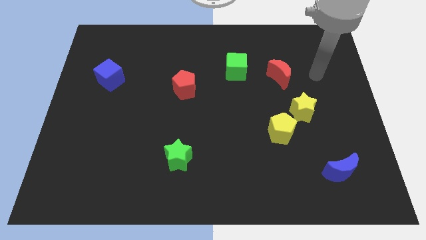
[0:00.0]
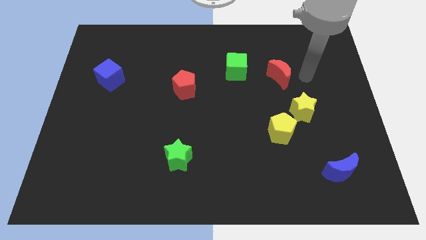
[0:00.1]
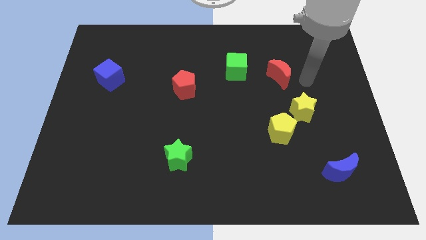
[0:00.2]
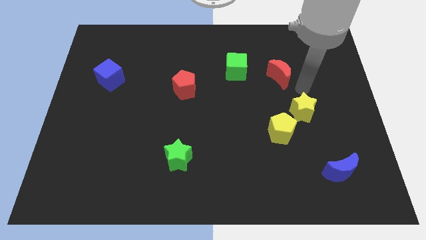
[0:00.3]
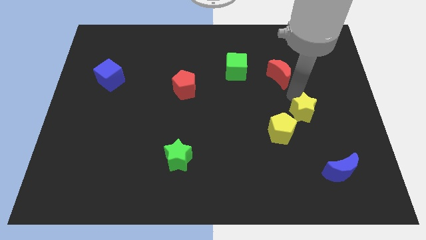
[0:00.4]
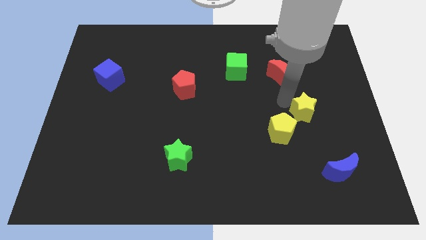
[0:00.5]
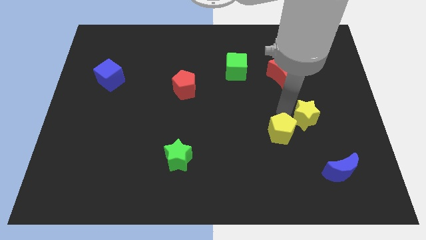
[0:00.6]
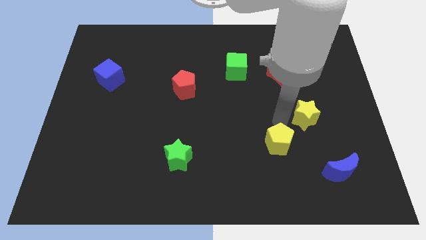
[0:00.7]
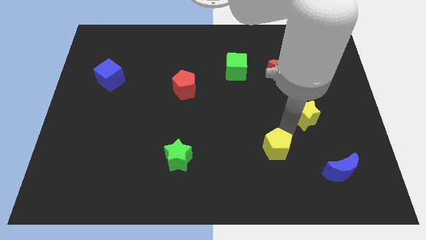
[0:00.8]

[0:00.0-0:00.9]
move the yellow star away from the yellow pentagon

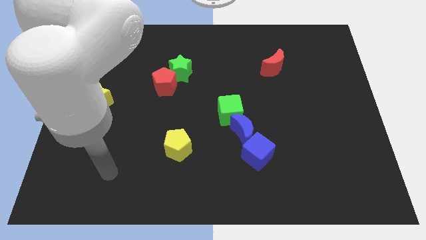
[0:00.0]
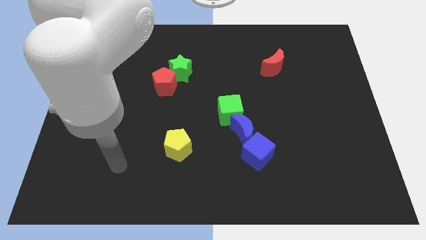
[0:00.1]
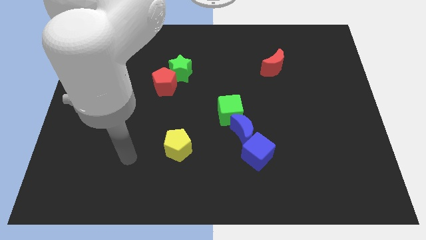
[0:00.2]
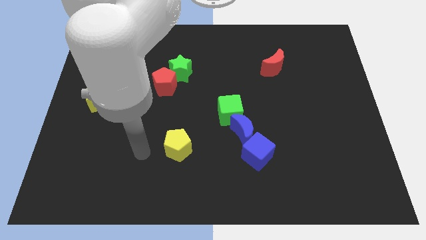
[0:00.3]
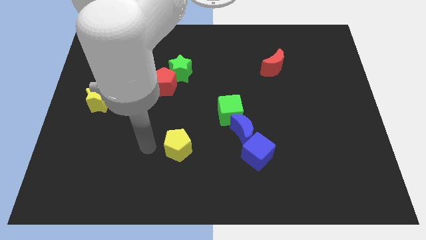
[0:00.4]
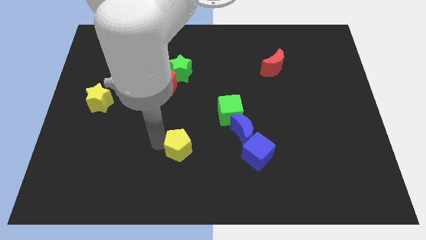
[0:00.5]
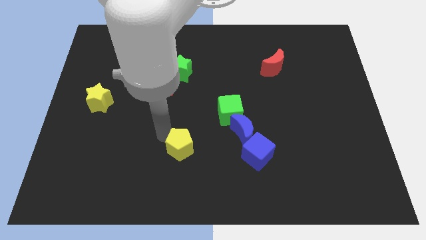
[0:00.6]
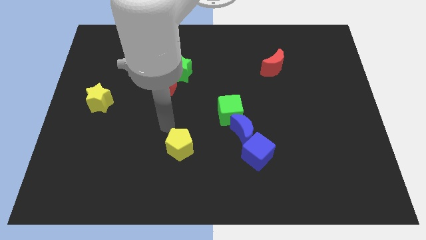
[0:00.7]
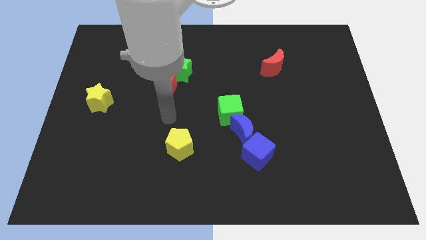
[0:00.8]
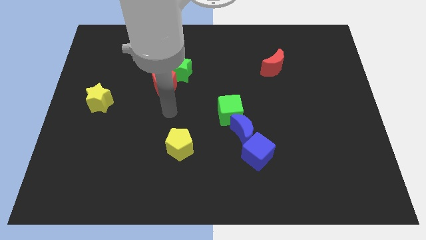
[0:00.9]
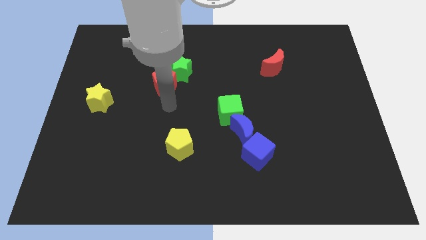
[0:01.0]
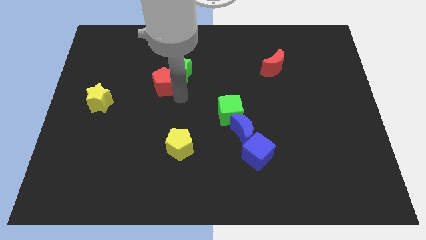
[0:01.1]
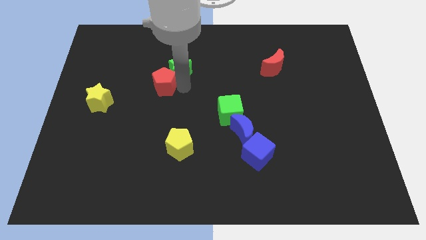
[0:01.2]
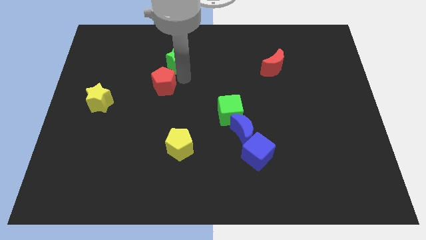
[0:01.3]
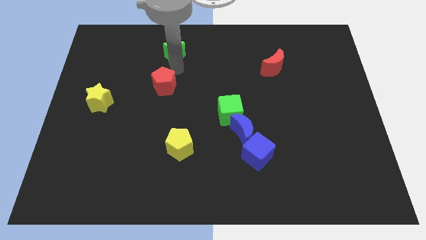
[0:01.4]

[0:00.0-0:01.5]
pull the red pentagon apart from the green star

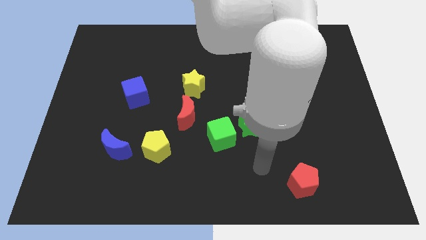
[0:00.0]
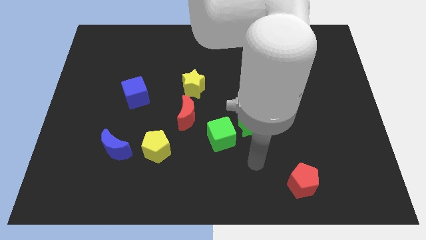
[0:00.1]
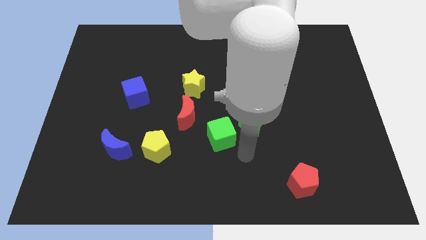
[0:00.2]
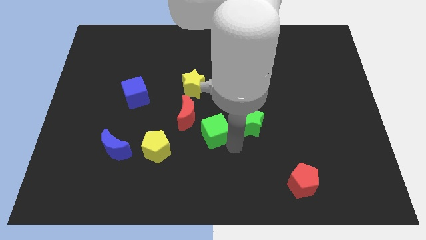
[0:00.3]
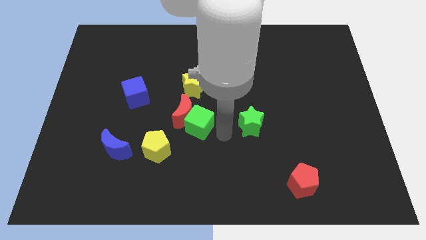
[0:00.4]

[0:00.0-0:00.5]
separate the green star from the green cube

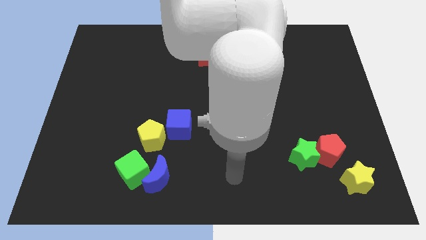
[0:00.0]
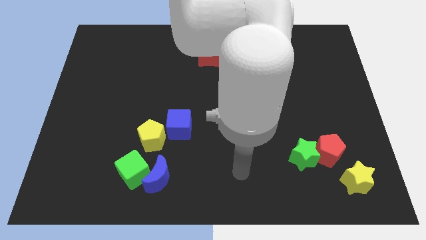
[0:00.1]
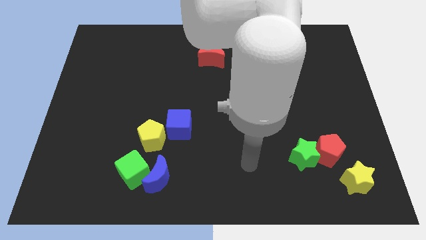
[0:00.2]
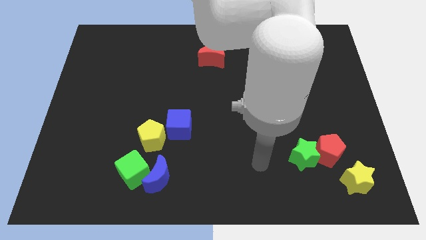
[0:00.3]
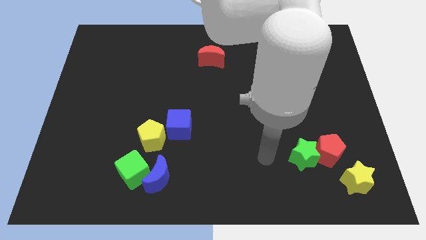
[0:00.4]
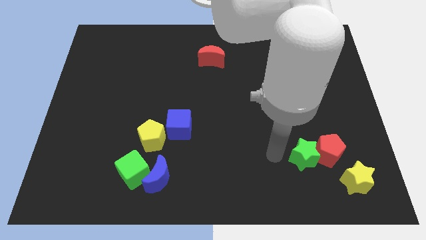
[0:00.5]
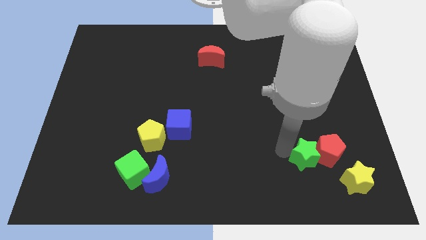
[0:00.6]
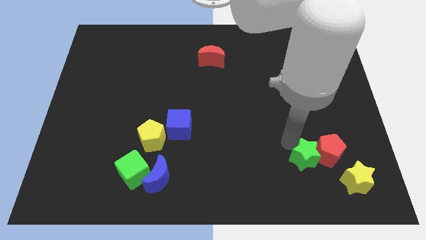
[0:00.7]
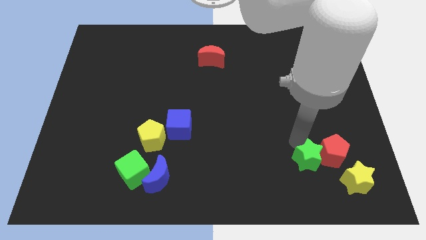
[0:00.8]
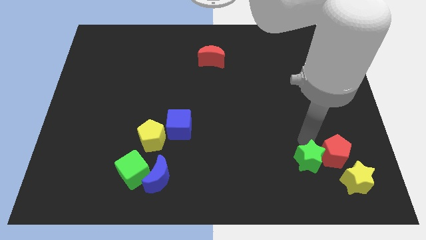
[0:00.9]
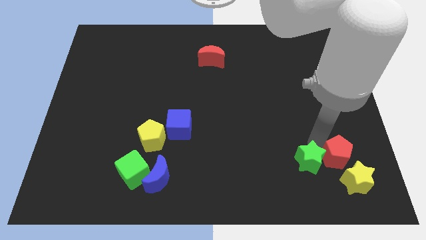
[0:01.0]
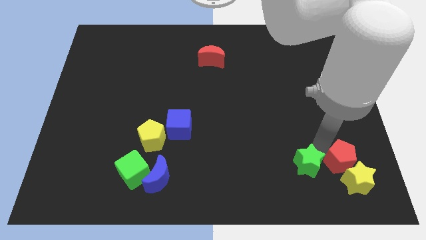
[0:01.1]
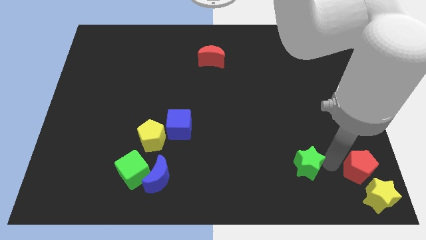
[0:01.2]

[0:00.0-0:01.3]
move the green star away from the red pentagon

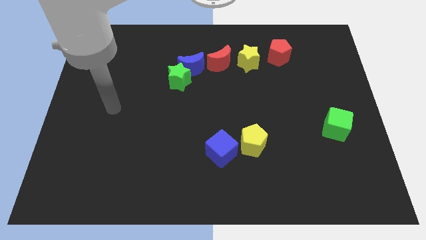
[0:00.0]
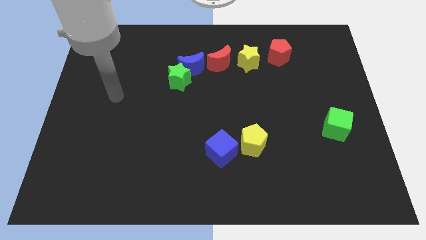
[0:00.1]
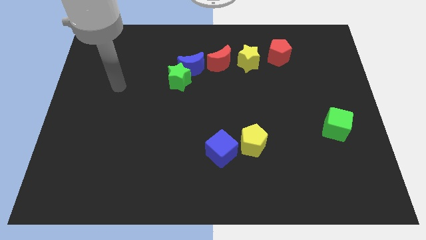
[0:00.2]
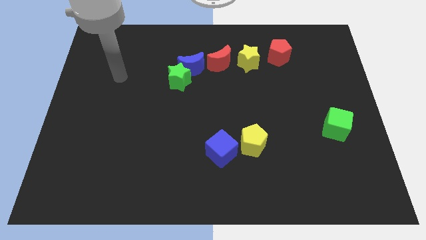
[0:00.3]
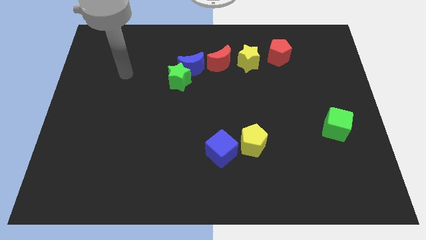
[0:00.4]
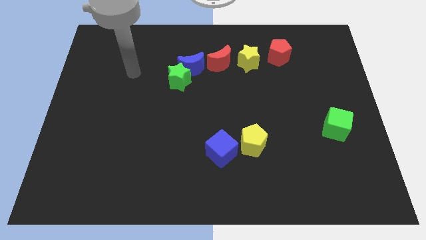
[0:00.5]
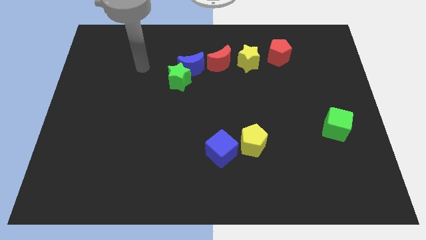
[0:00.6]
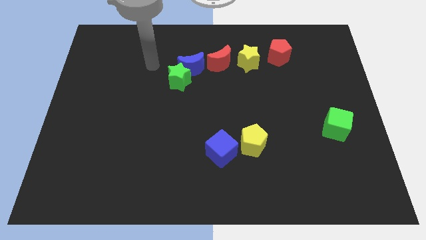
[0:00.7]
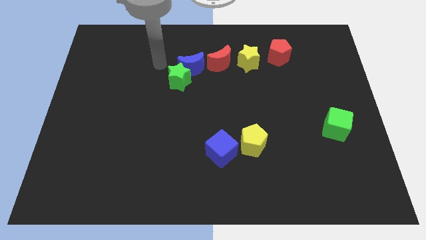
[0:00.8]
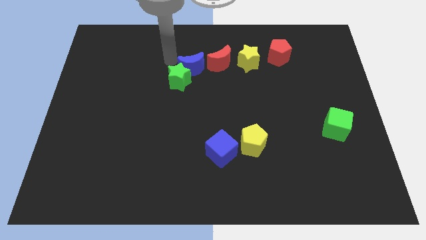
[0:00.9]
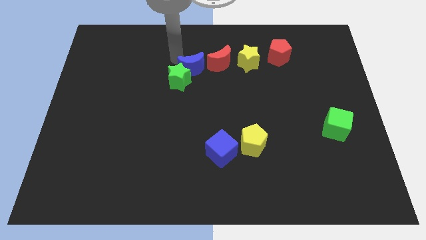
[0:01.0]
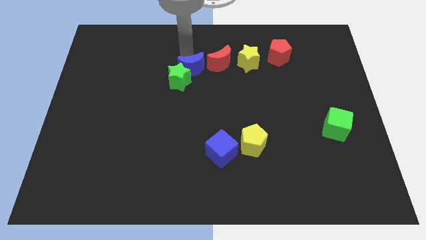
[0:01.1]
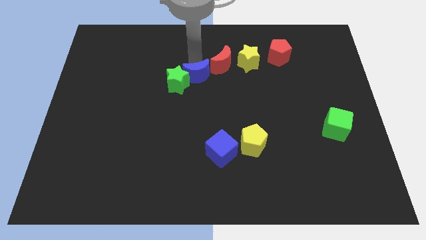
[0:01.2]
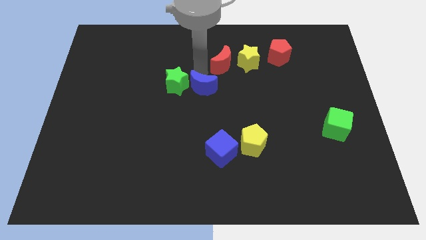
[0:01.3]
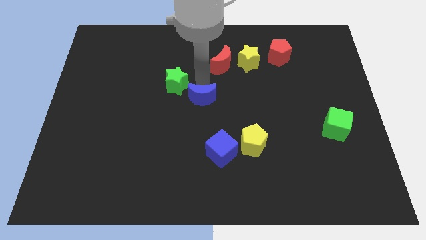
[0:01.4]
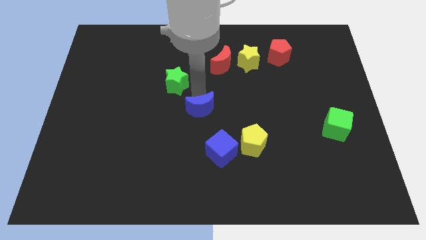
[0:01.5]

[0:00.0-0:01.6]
separate the green star from the blue moon

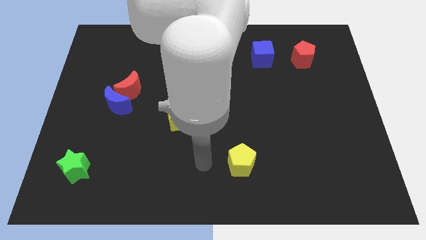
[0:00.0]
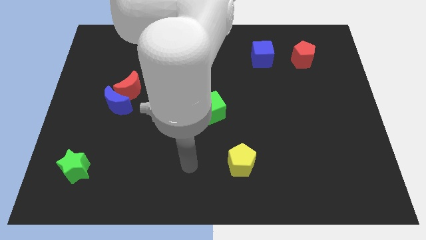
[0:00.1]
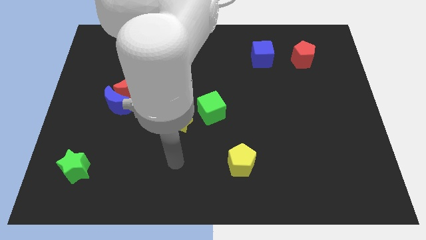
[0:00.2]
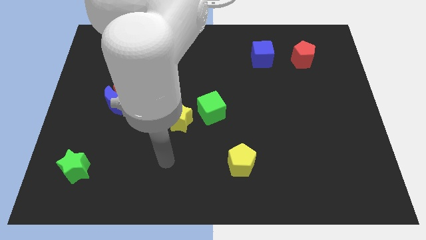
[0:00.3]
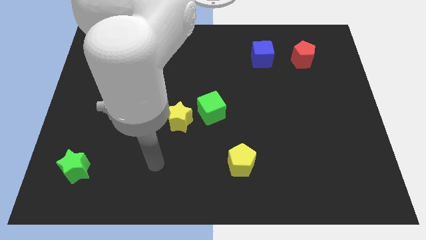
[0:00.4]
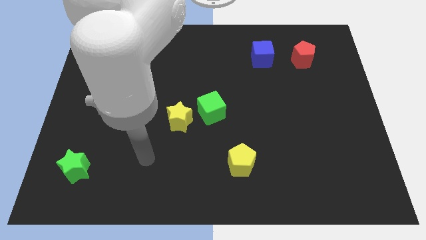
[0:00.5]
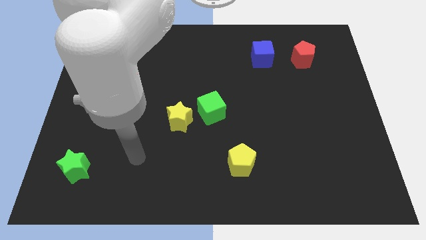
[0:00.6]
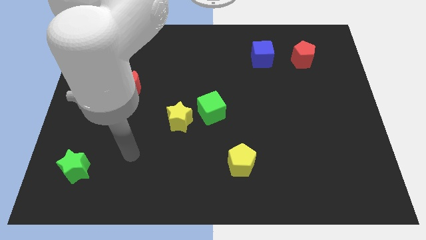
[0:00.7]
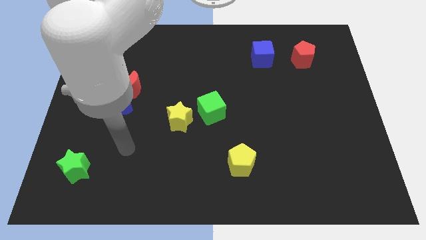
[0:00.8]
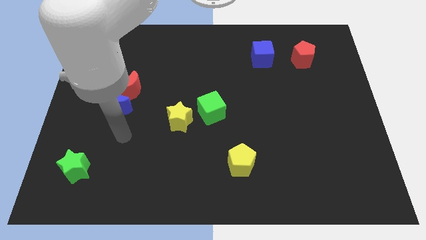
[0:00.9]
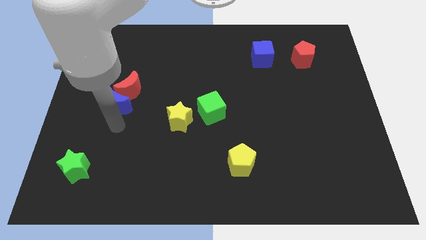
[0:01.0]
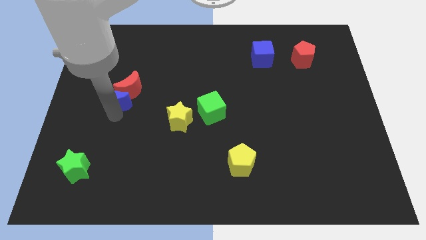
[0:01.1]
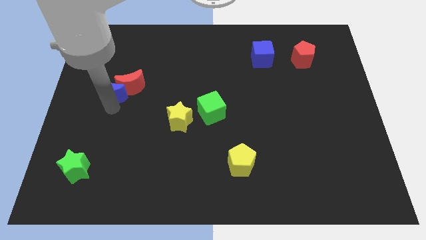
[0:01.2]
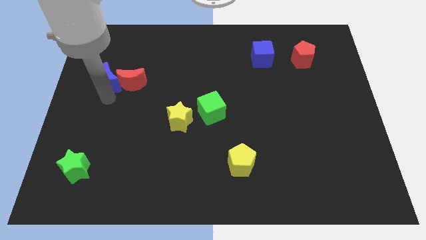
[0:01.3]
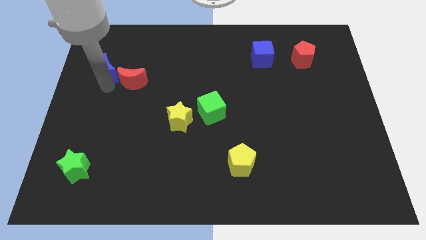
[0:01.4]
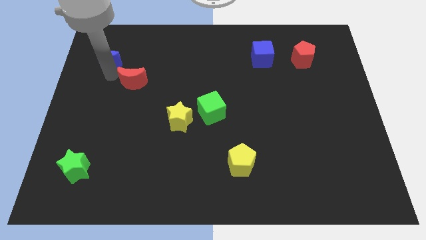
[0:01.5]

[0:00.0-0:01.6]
separate the red moon from the blue moon

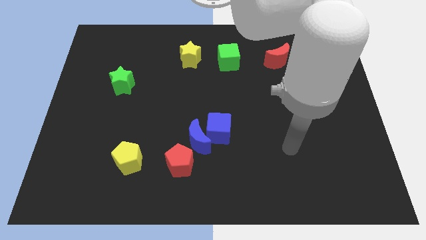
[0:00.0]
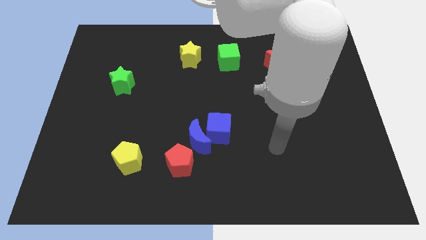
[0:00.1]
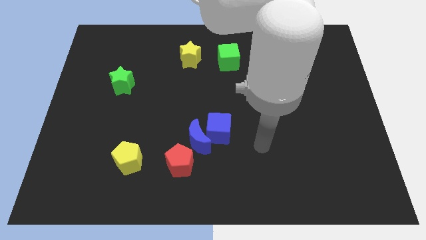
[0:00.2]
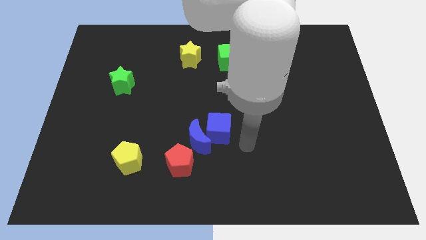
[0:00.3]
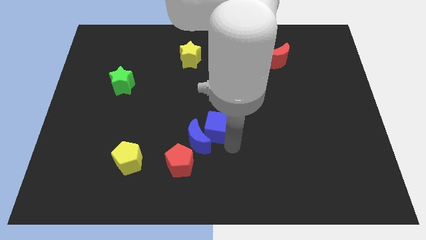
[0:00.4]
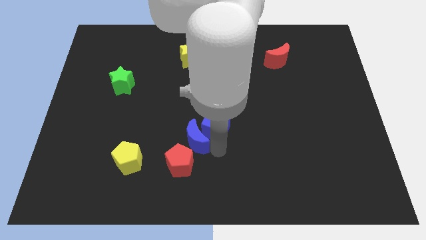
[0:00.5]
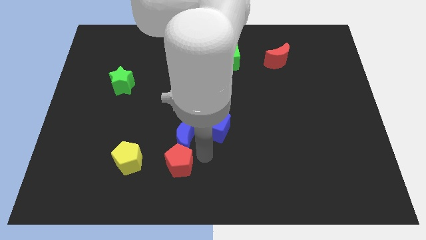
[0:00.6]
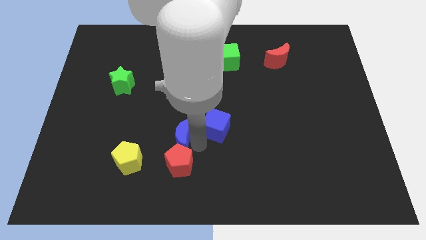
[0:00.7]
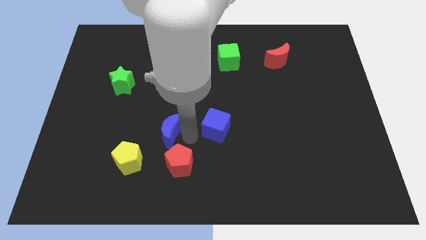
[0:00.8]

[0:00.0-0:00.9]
pull the blue cube apart from the blue moon

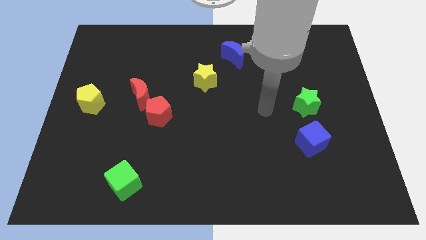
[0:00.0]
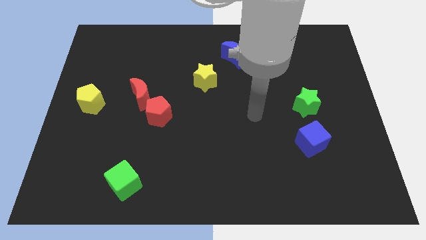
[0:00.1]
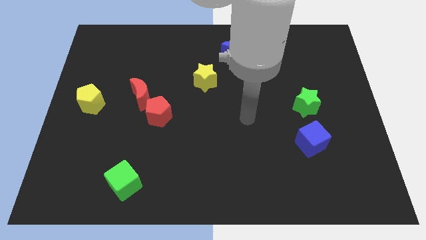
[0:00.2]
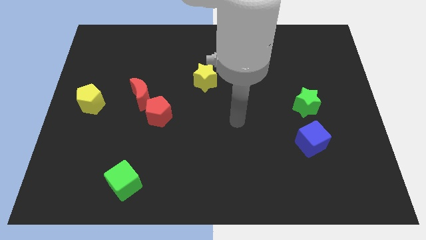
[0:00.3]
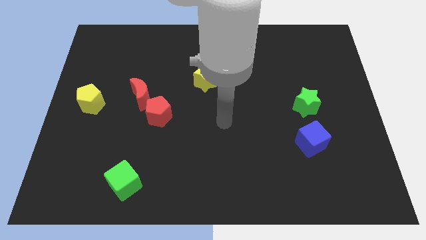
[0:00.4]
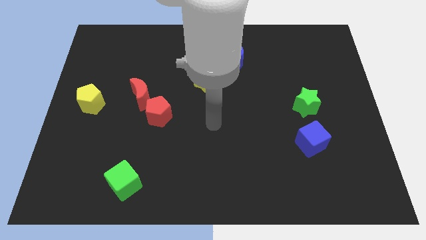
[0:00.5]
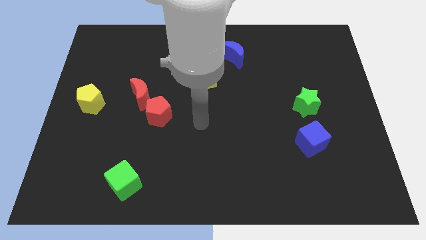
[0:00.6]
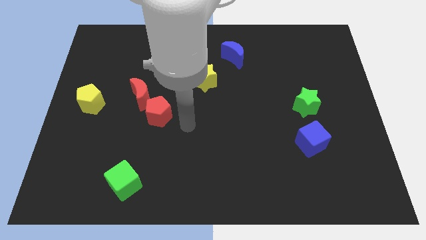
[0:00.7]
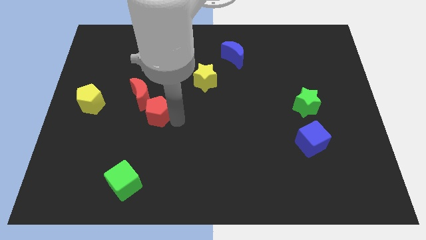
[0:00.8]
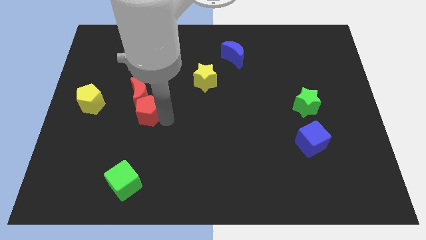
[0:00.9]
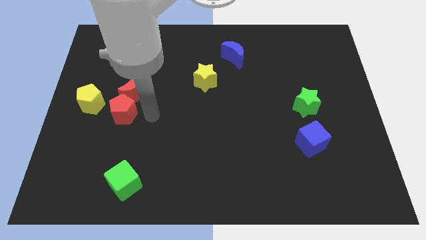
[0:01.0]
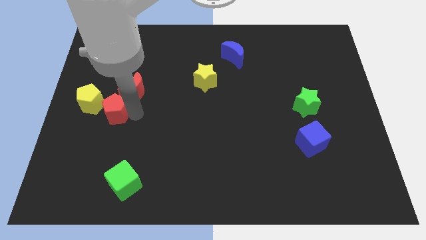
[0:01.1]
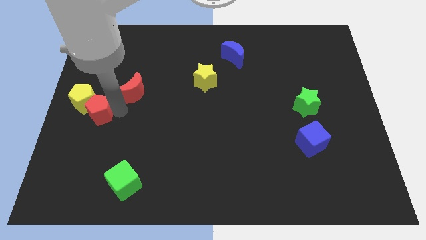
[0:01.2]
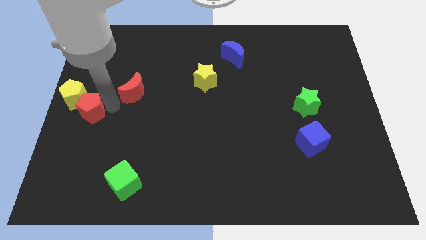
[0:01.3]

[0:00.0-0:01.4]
separate the red moon from the red pentagon
